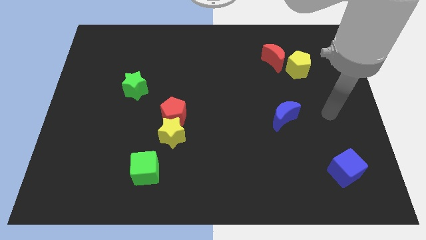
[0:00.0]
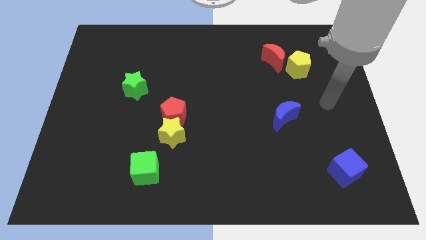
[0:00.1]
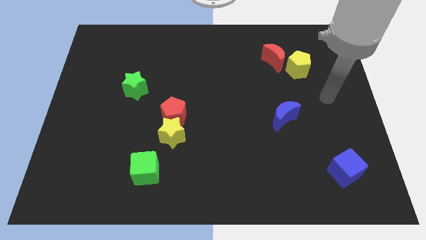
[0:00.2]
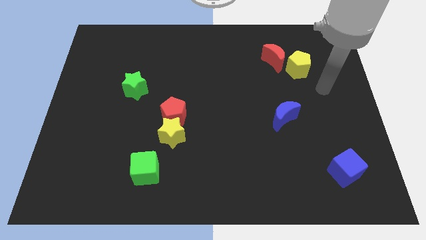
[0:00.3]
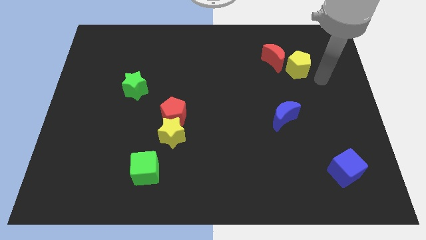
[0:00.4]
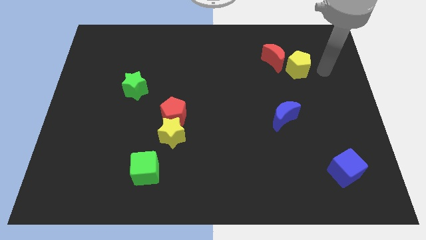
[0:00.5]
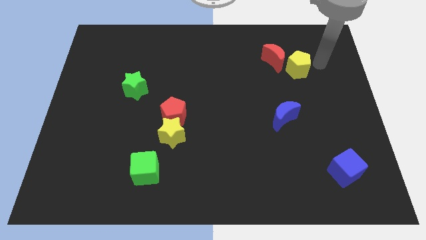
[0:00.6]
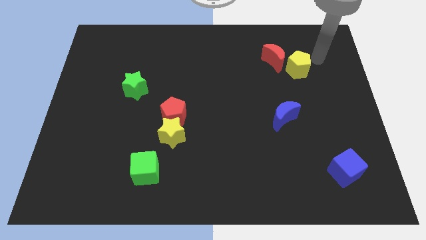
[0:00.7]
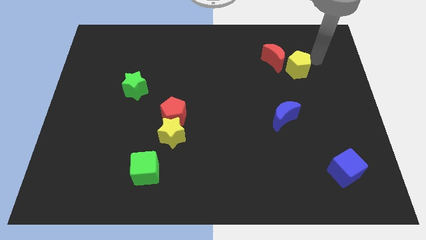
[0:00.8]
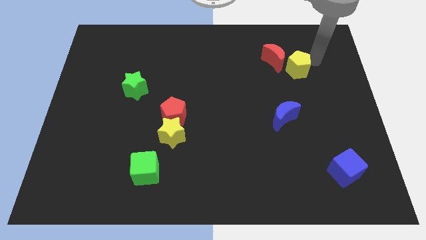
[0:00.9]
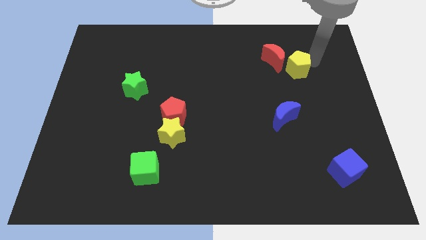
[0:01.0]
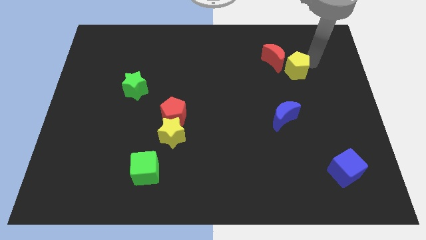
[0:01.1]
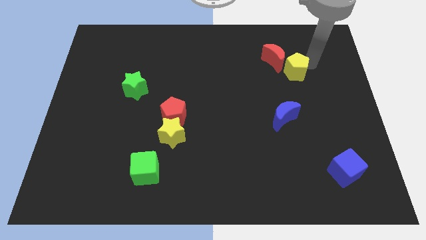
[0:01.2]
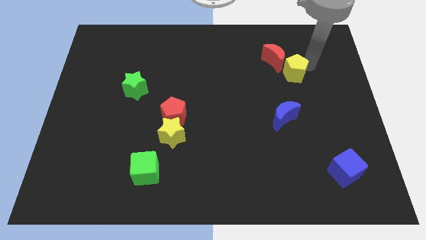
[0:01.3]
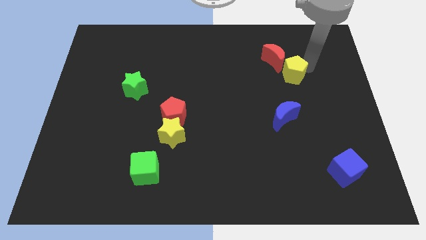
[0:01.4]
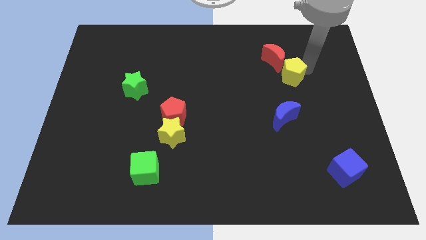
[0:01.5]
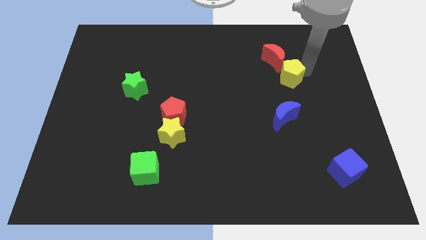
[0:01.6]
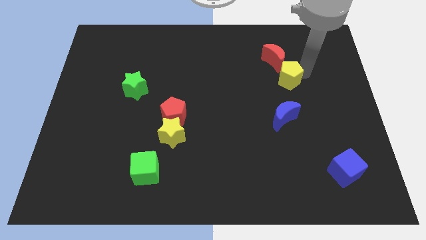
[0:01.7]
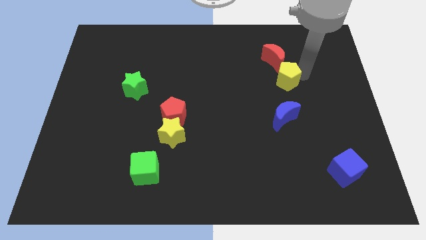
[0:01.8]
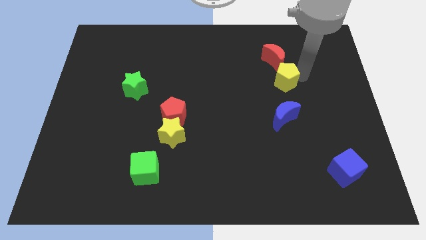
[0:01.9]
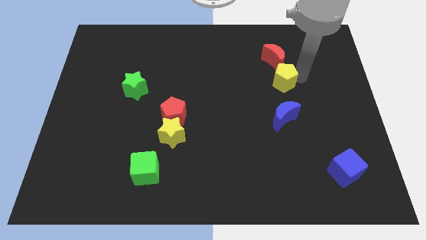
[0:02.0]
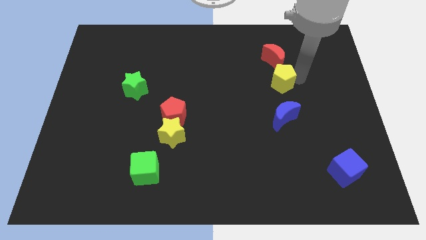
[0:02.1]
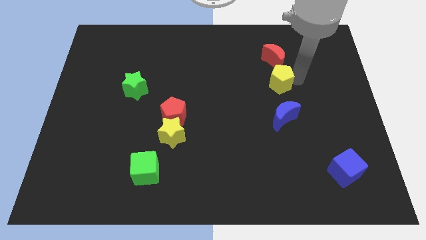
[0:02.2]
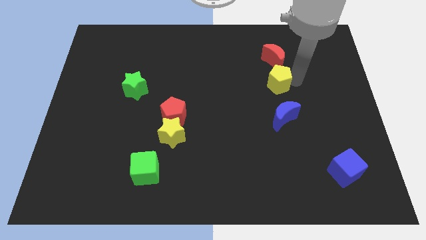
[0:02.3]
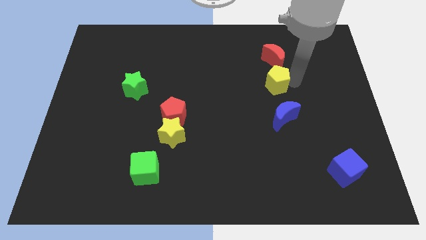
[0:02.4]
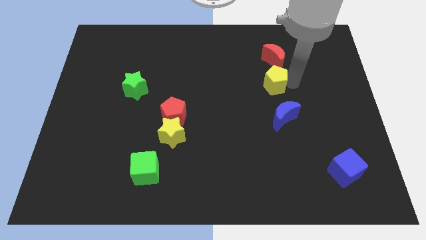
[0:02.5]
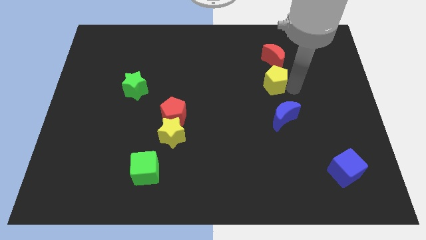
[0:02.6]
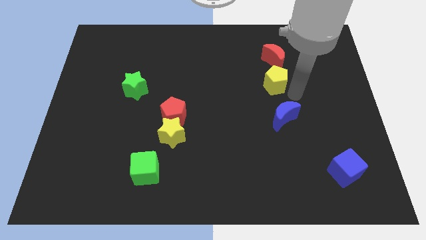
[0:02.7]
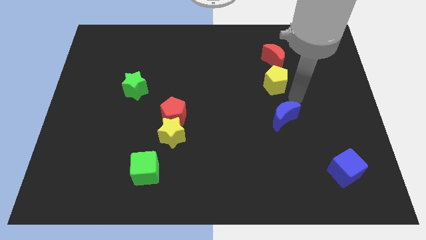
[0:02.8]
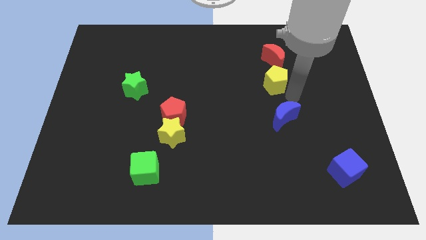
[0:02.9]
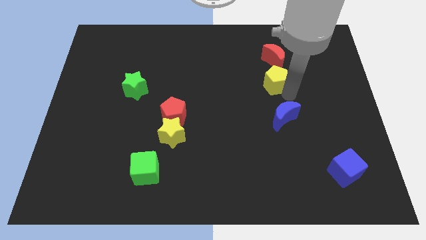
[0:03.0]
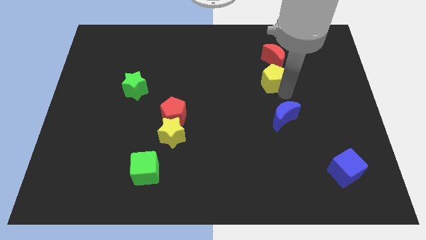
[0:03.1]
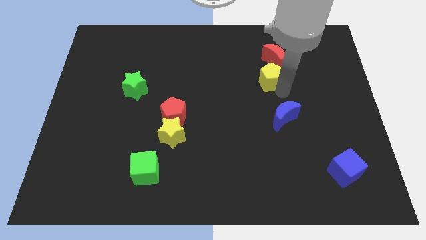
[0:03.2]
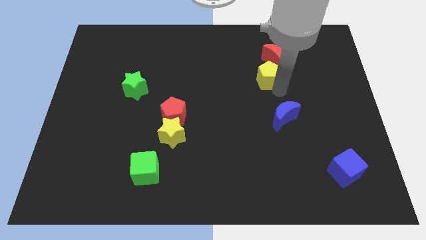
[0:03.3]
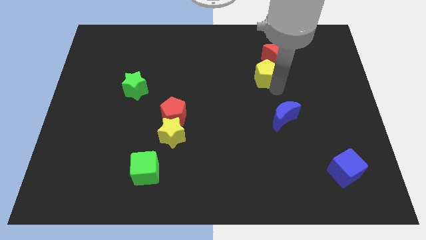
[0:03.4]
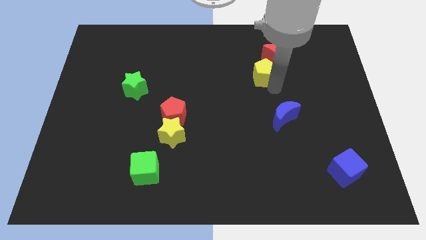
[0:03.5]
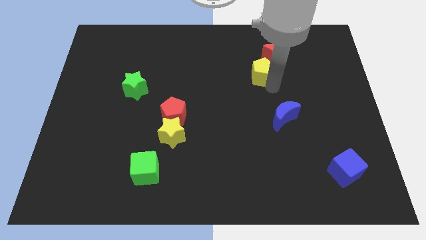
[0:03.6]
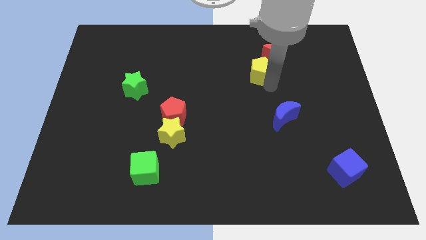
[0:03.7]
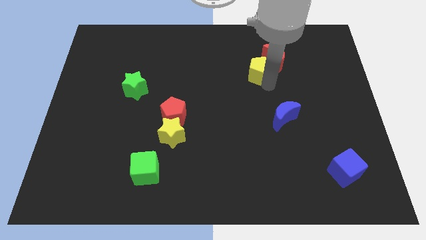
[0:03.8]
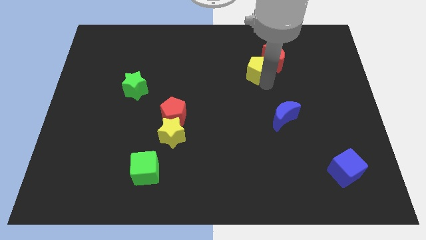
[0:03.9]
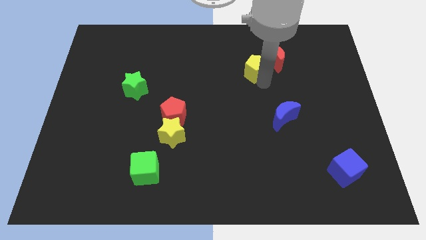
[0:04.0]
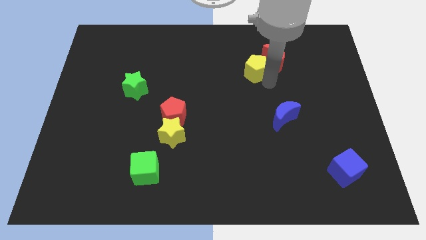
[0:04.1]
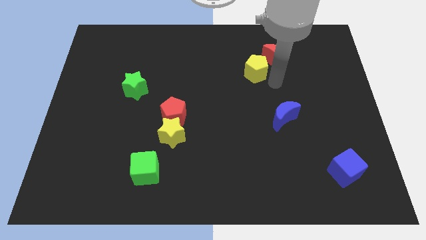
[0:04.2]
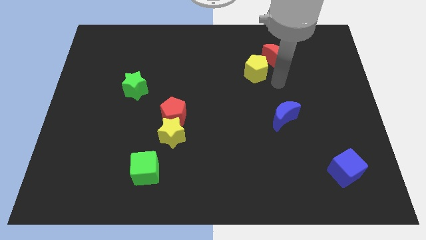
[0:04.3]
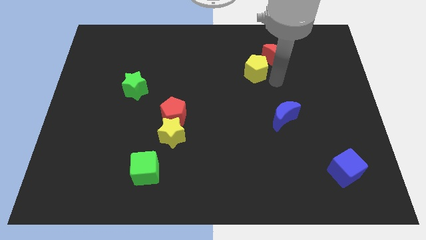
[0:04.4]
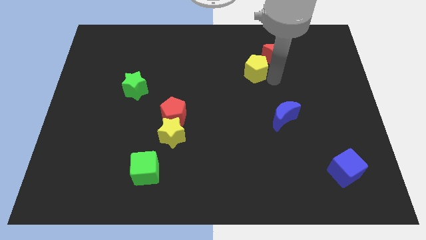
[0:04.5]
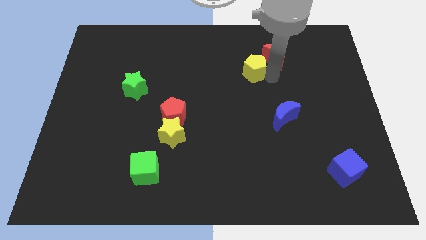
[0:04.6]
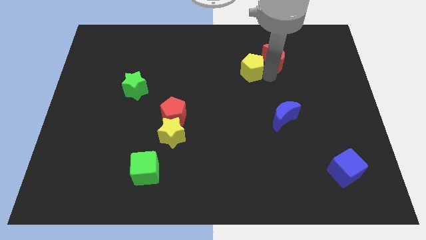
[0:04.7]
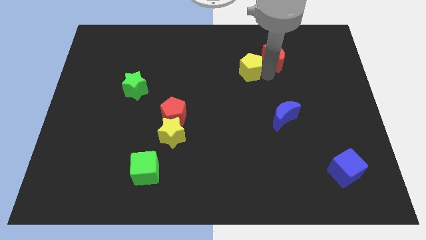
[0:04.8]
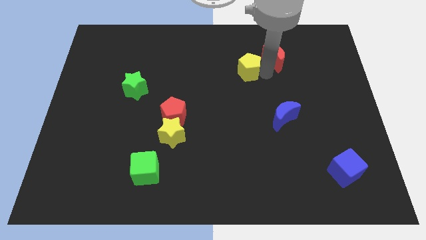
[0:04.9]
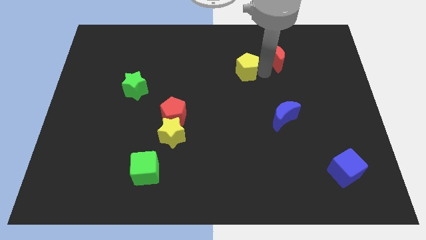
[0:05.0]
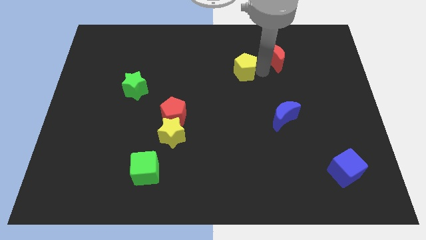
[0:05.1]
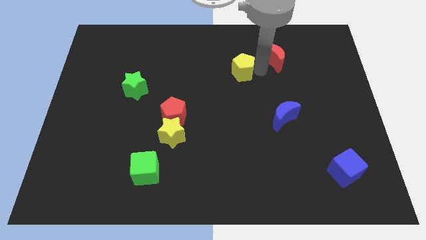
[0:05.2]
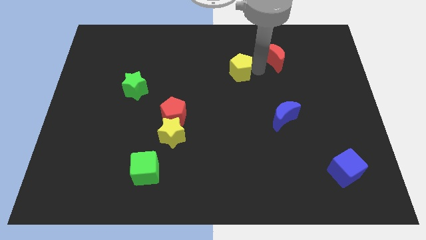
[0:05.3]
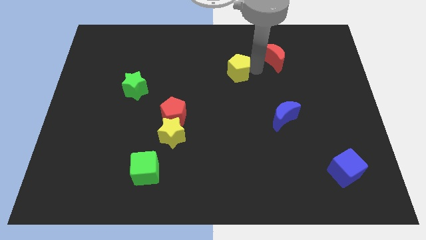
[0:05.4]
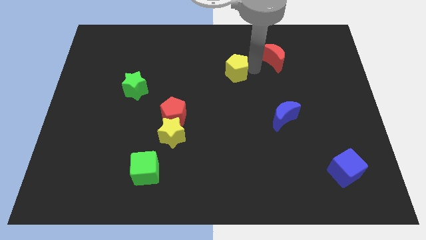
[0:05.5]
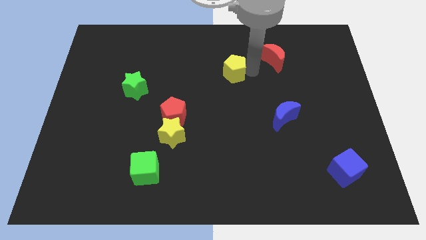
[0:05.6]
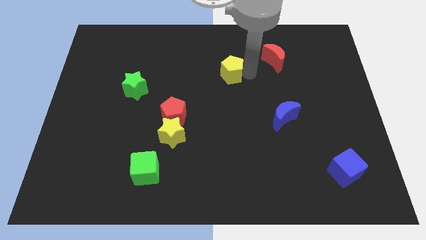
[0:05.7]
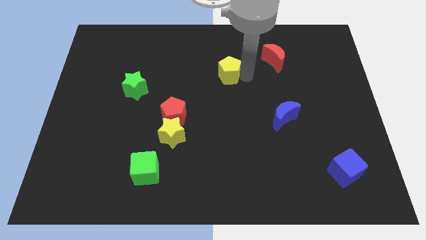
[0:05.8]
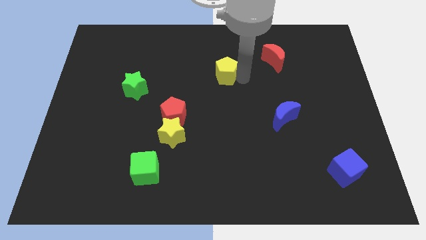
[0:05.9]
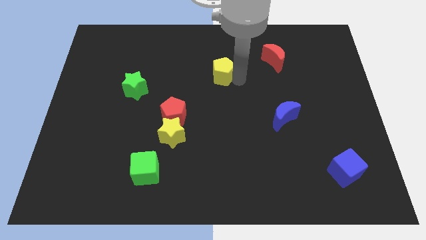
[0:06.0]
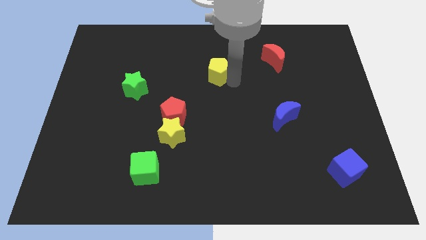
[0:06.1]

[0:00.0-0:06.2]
move the yellow pentagon left

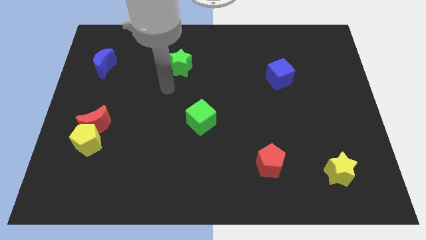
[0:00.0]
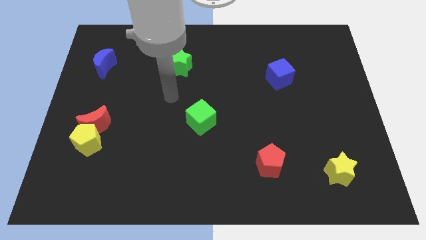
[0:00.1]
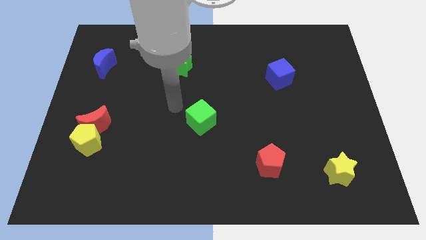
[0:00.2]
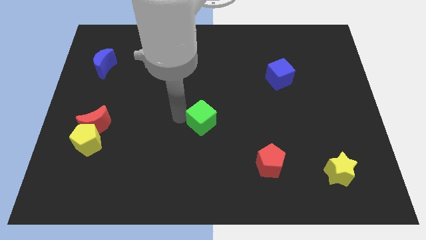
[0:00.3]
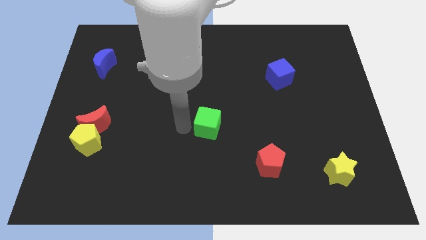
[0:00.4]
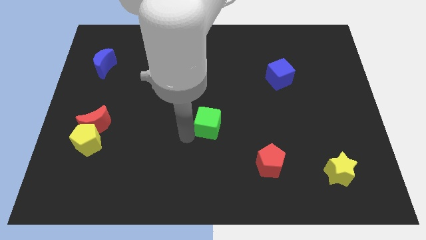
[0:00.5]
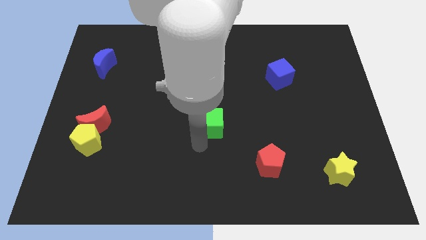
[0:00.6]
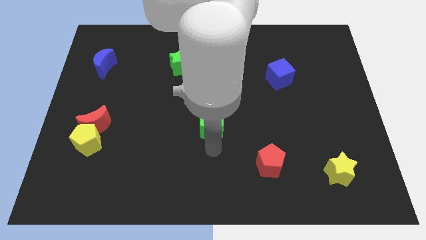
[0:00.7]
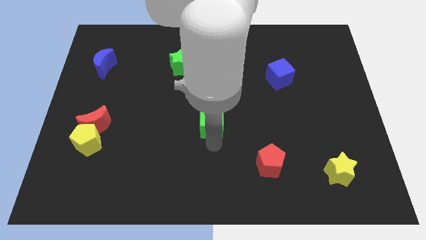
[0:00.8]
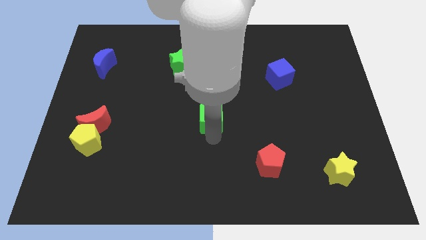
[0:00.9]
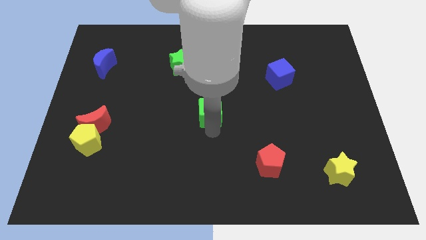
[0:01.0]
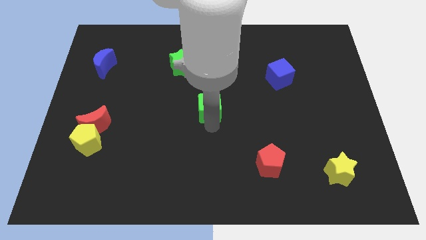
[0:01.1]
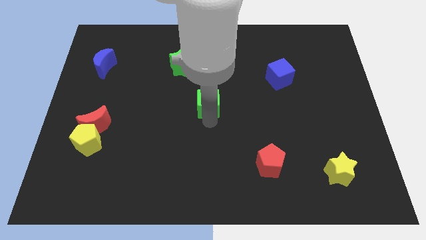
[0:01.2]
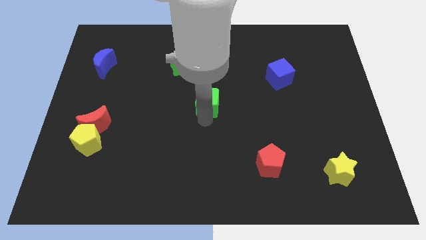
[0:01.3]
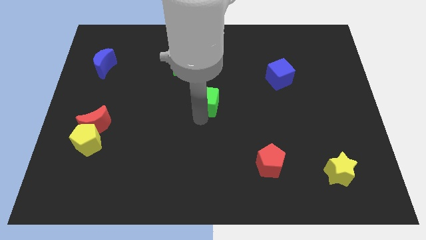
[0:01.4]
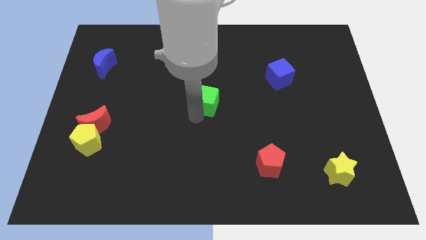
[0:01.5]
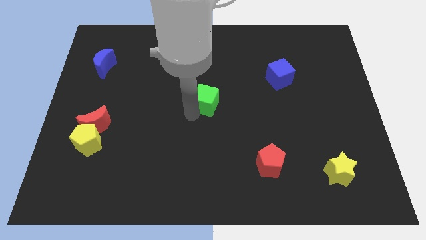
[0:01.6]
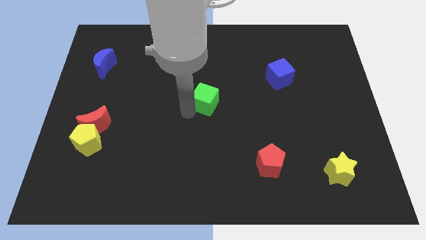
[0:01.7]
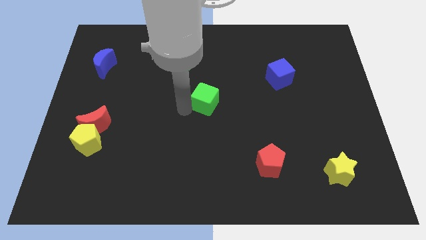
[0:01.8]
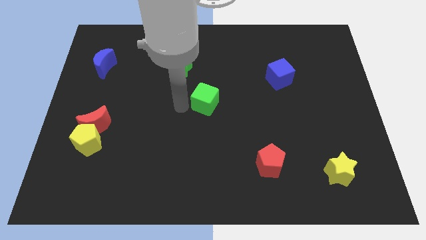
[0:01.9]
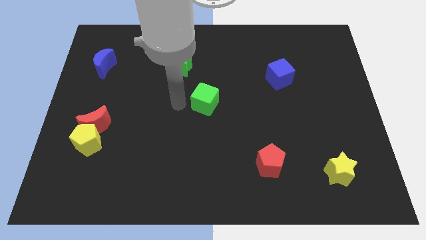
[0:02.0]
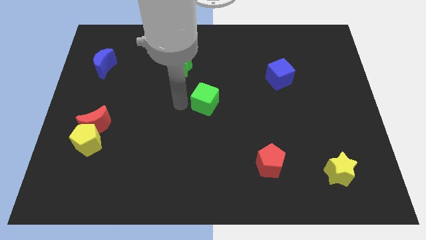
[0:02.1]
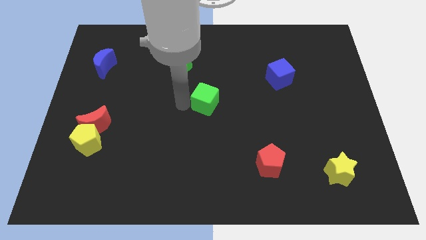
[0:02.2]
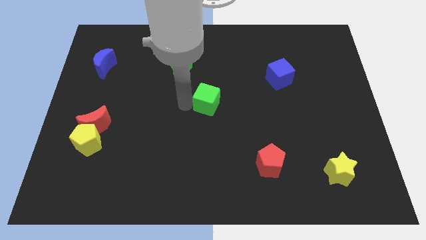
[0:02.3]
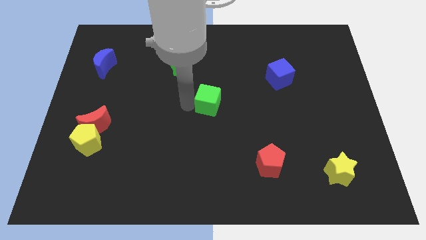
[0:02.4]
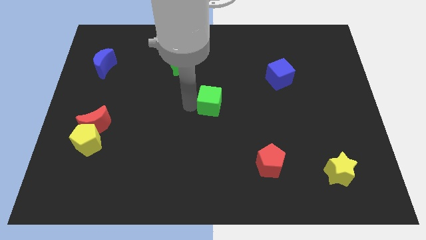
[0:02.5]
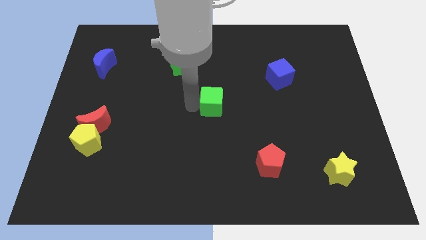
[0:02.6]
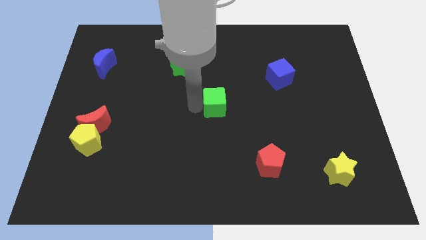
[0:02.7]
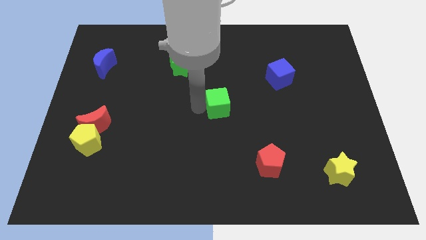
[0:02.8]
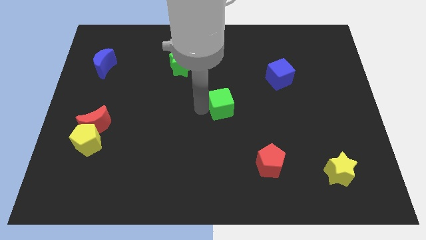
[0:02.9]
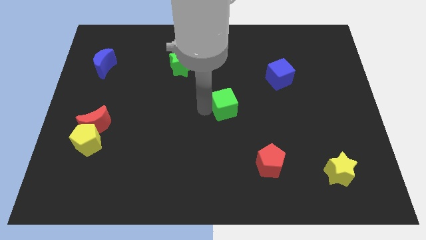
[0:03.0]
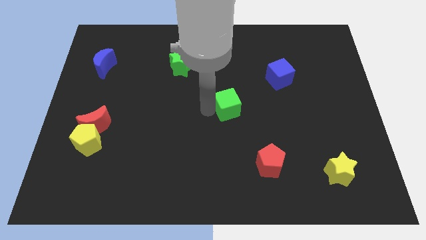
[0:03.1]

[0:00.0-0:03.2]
move the green cube a little bit upwards and to the right diagonally
